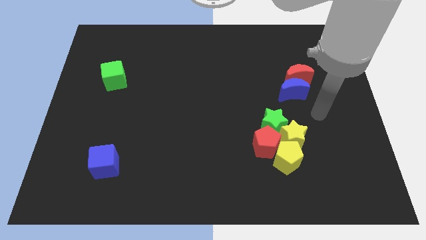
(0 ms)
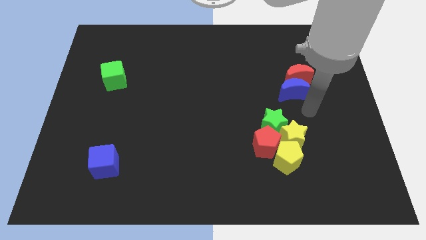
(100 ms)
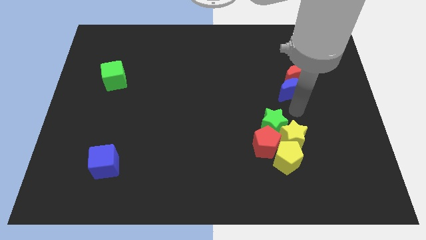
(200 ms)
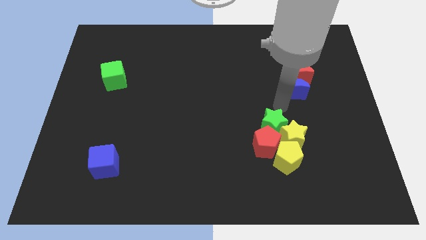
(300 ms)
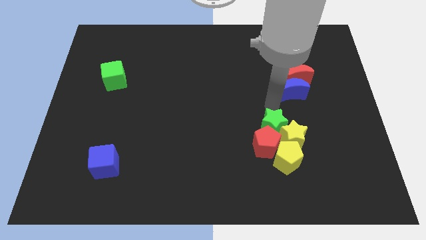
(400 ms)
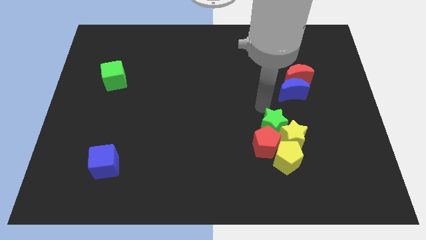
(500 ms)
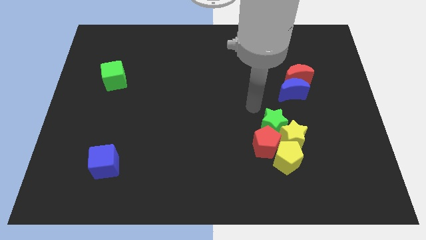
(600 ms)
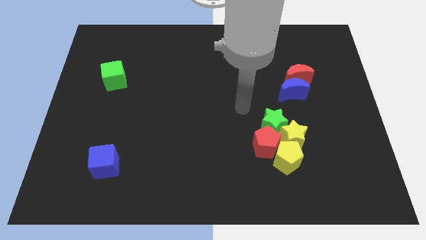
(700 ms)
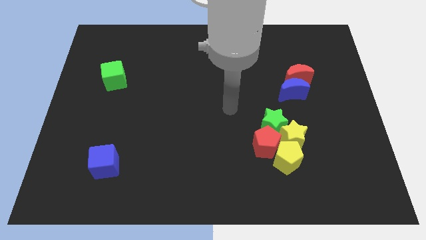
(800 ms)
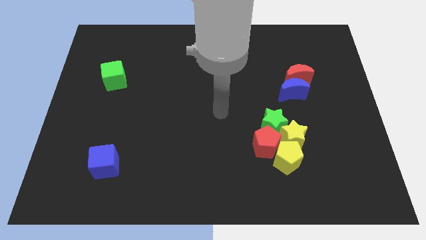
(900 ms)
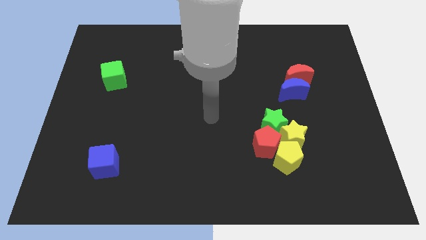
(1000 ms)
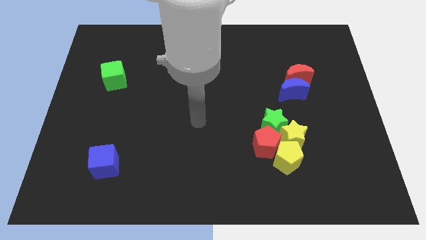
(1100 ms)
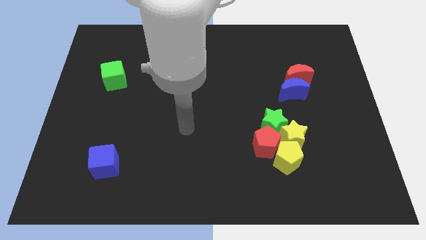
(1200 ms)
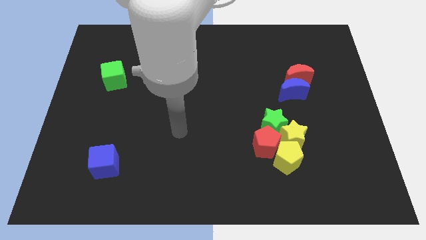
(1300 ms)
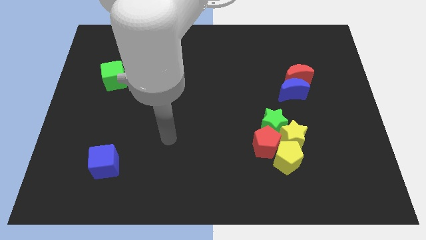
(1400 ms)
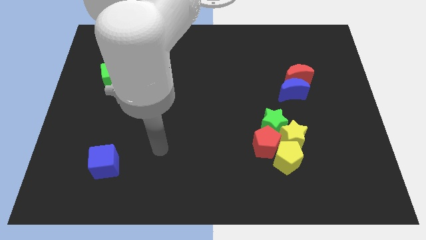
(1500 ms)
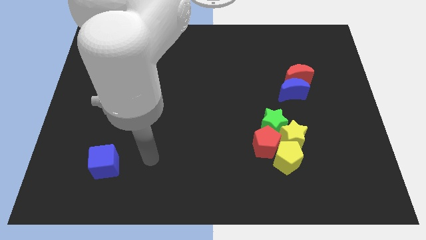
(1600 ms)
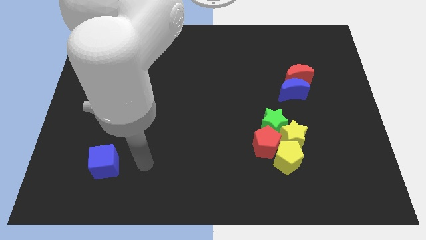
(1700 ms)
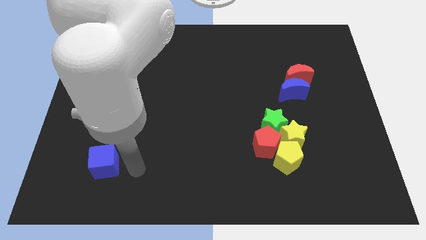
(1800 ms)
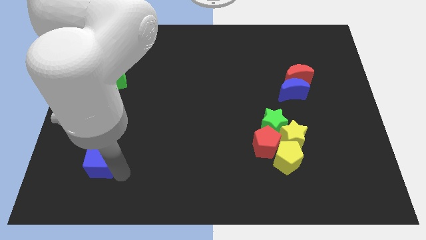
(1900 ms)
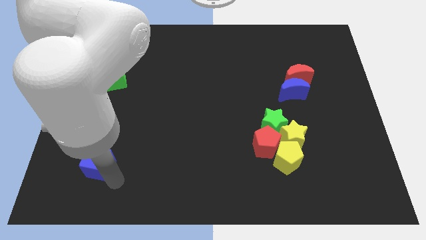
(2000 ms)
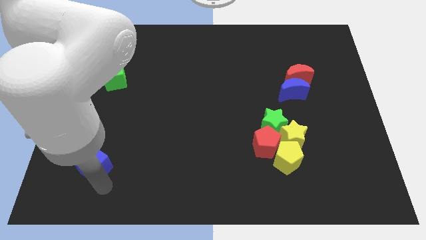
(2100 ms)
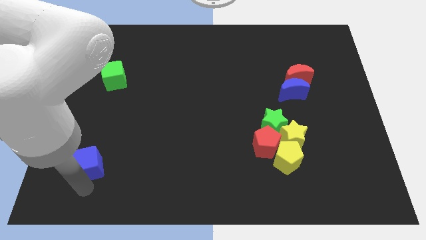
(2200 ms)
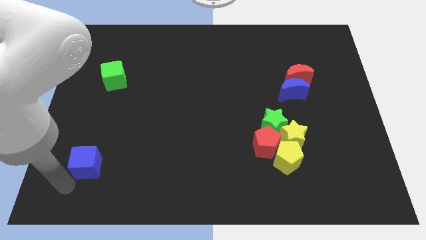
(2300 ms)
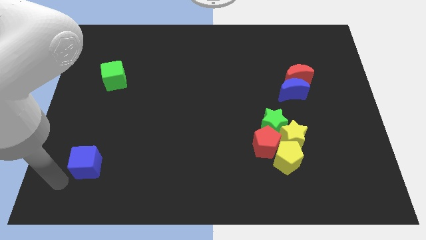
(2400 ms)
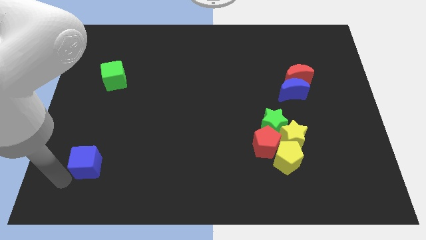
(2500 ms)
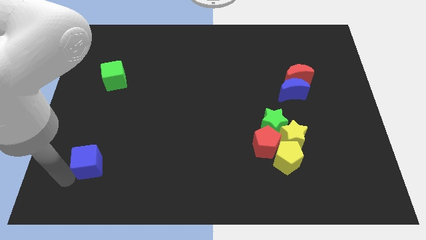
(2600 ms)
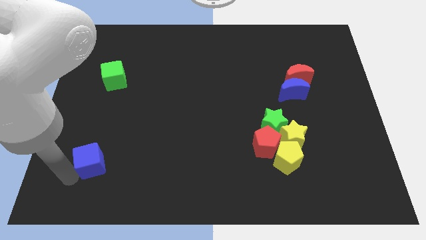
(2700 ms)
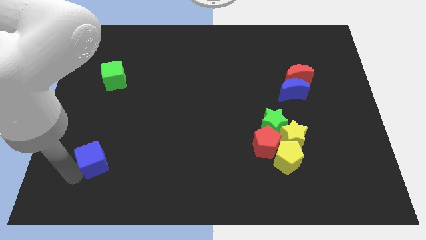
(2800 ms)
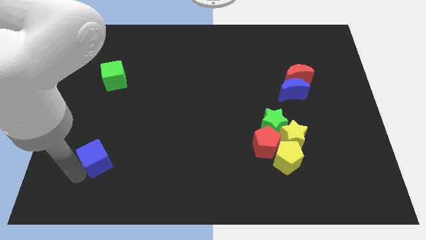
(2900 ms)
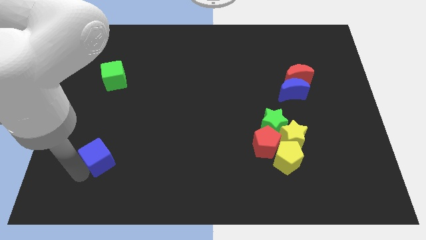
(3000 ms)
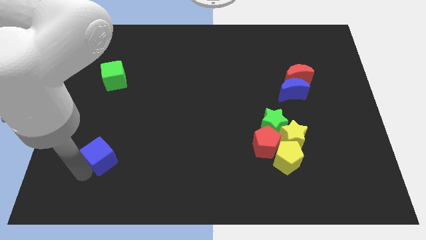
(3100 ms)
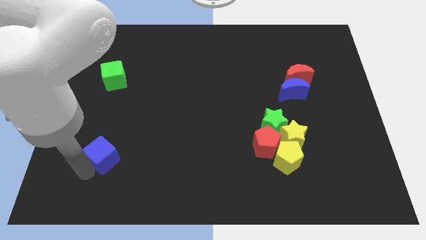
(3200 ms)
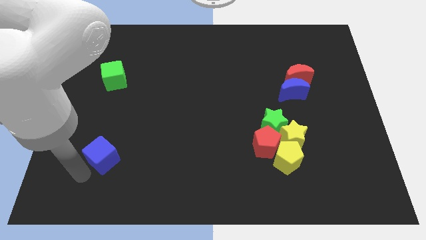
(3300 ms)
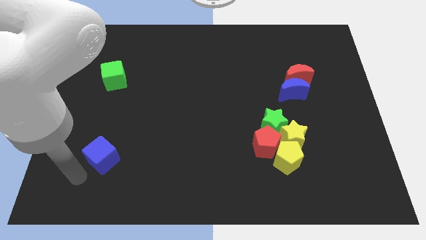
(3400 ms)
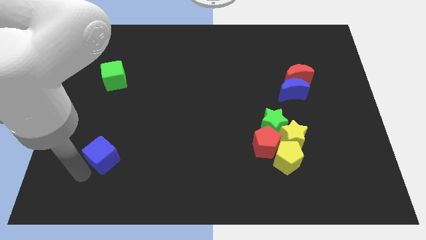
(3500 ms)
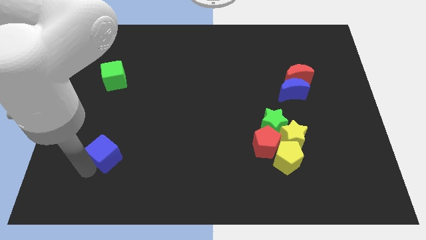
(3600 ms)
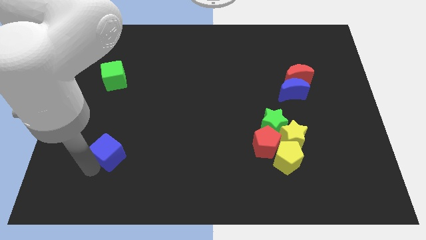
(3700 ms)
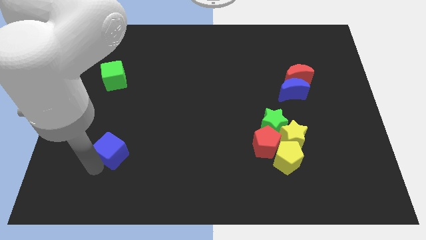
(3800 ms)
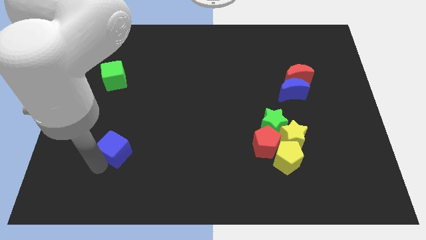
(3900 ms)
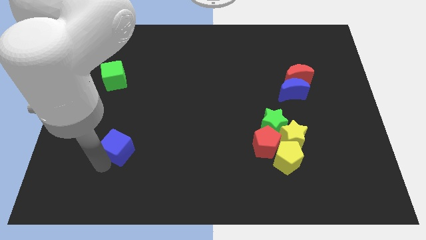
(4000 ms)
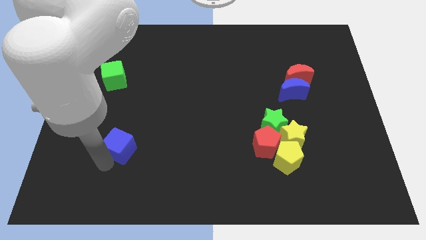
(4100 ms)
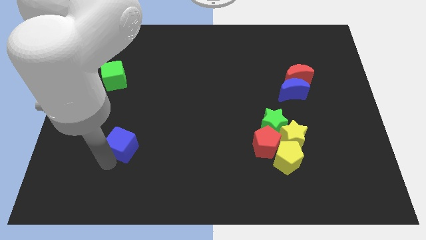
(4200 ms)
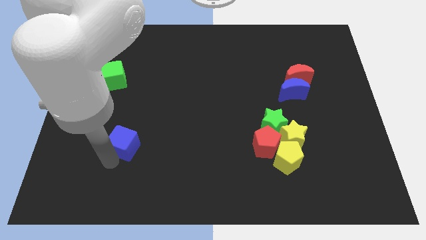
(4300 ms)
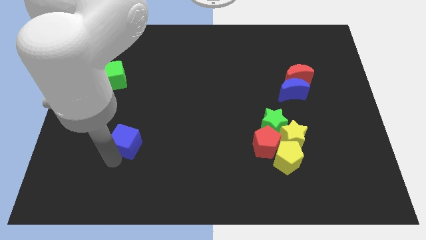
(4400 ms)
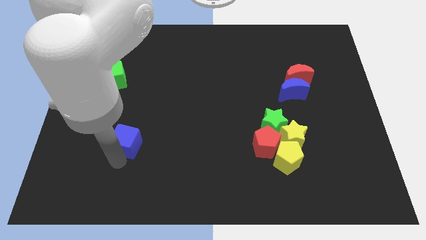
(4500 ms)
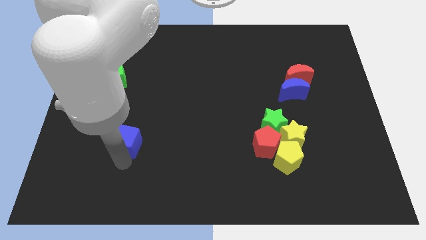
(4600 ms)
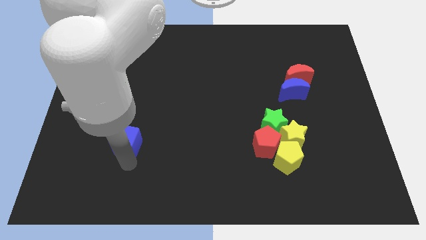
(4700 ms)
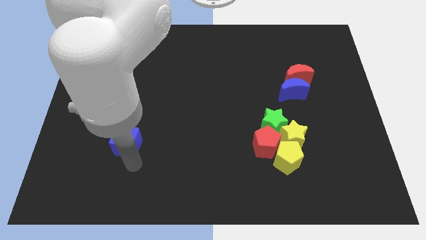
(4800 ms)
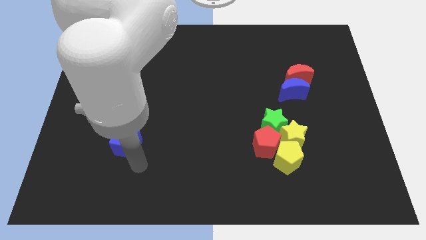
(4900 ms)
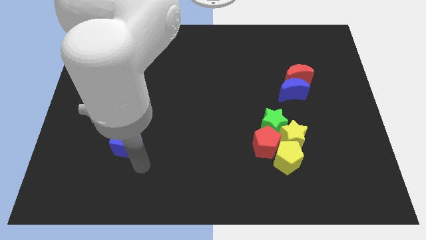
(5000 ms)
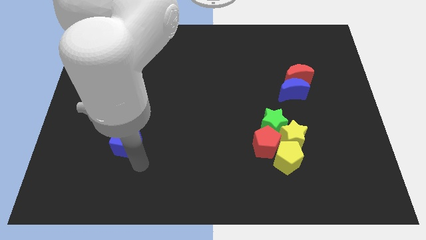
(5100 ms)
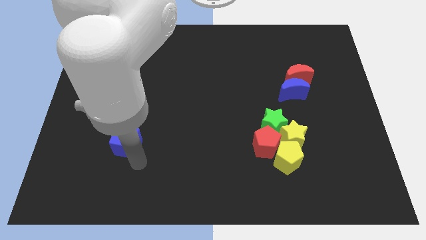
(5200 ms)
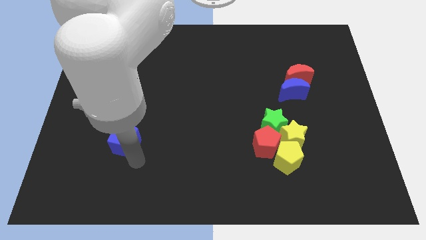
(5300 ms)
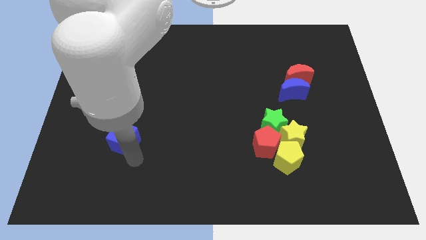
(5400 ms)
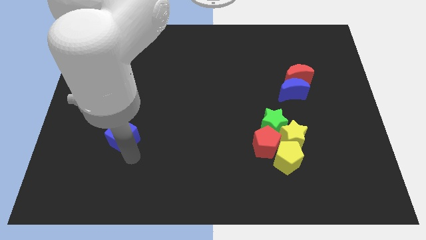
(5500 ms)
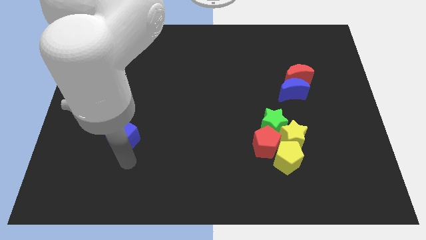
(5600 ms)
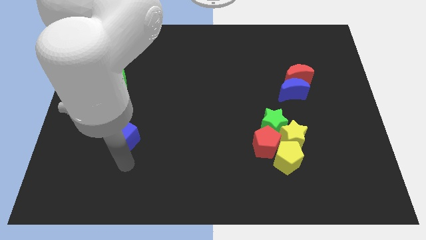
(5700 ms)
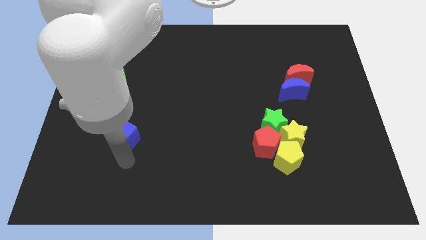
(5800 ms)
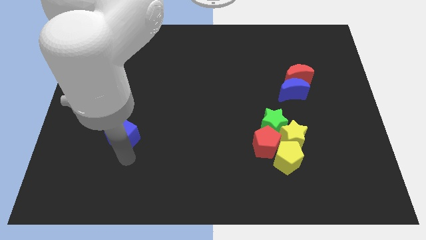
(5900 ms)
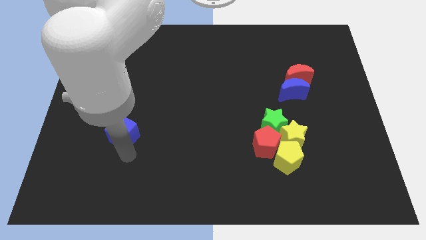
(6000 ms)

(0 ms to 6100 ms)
move the blue cube up a little bit

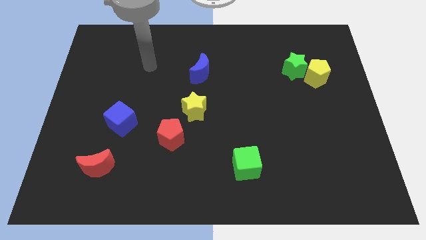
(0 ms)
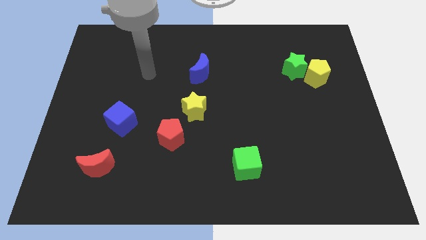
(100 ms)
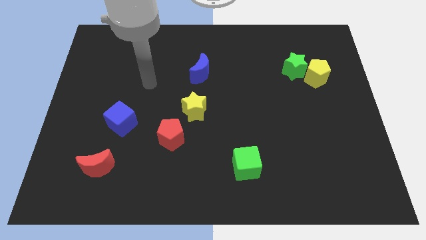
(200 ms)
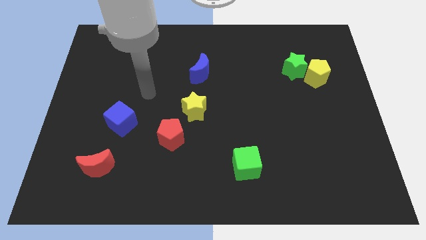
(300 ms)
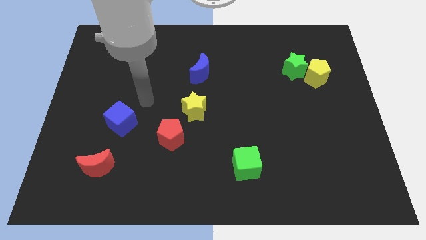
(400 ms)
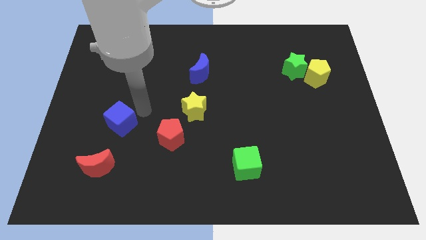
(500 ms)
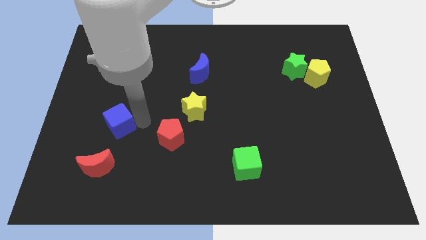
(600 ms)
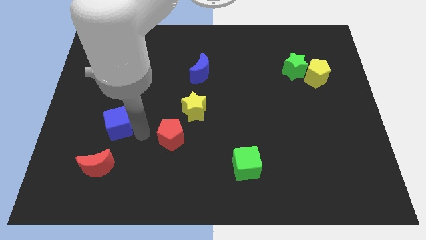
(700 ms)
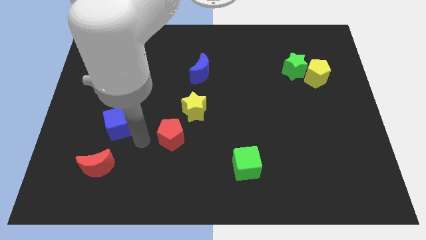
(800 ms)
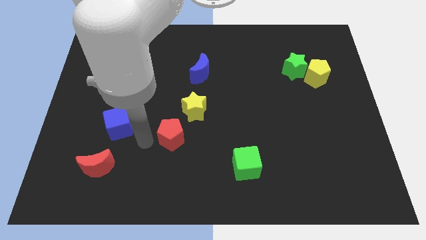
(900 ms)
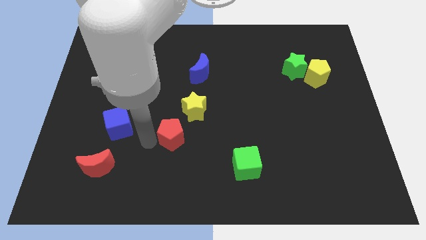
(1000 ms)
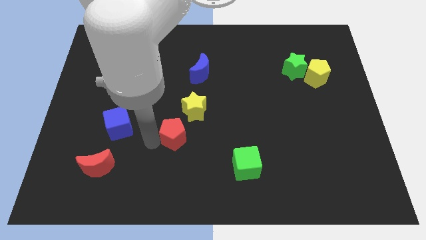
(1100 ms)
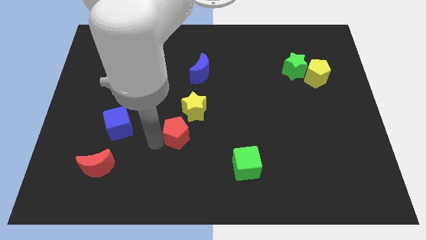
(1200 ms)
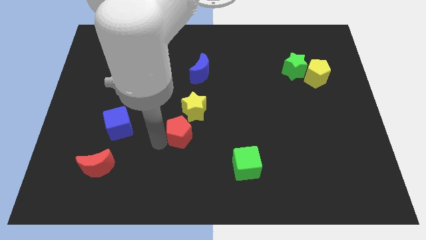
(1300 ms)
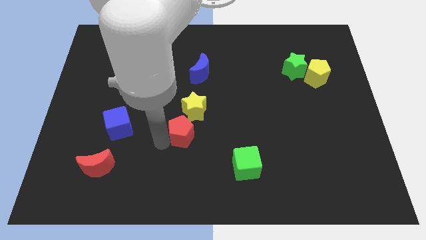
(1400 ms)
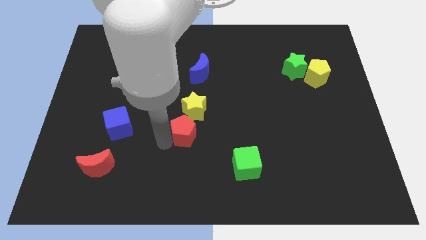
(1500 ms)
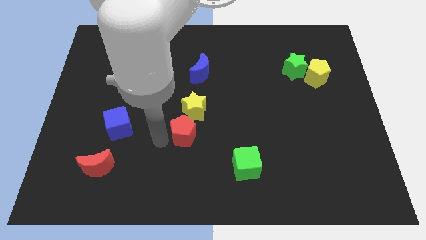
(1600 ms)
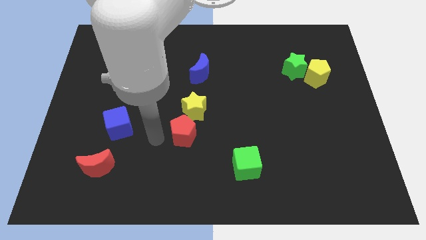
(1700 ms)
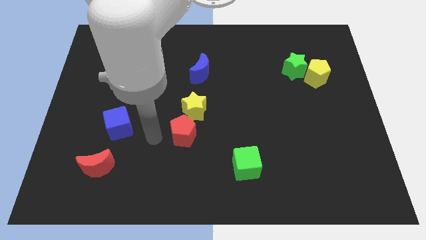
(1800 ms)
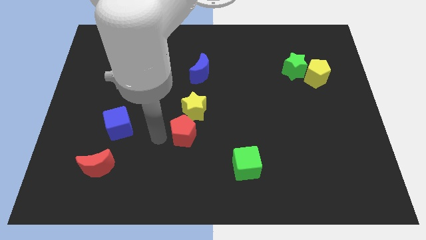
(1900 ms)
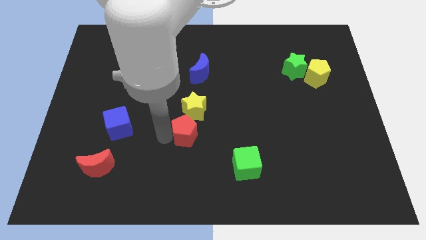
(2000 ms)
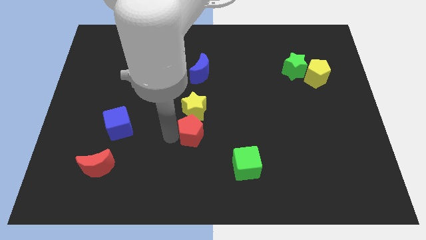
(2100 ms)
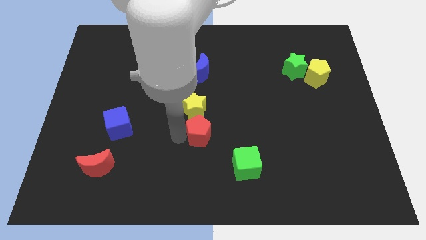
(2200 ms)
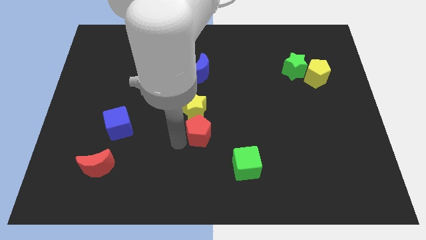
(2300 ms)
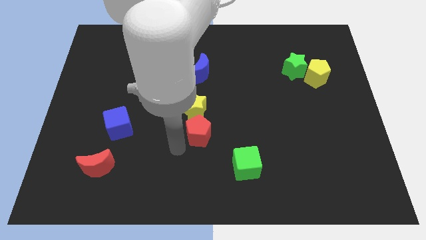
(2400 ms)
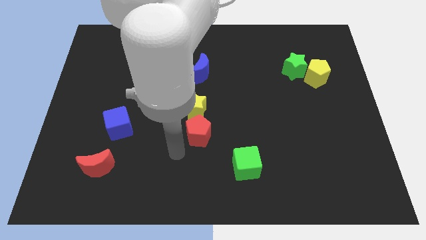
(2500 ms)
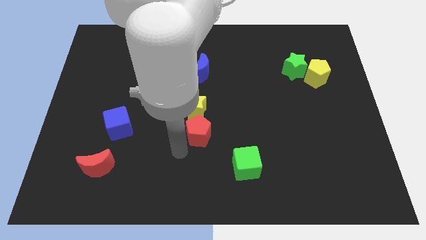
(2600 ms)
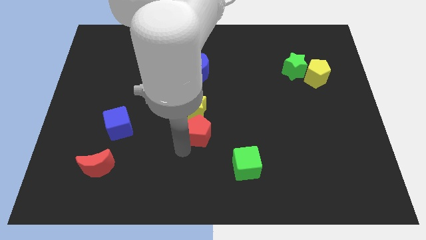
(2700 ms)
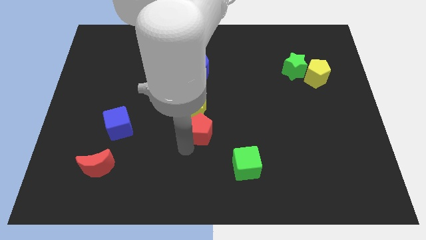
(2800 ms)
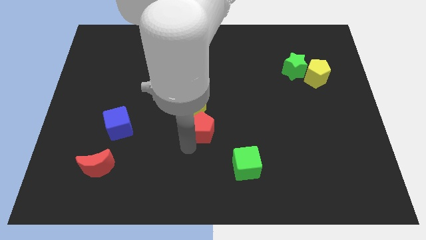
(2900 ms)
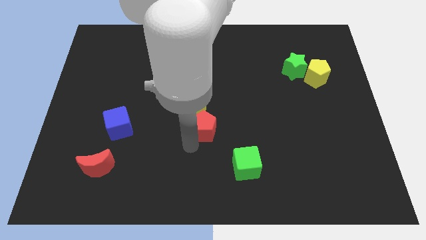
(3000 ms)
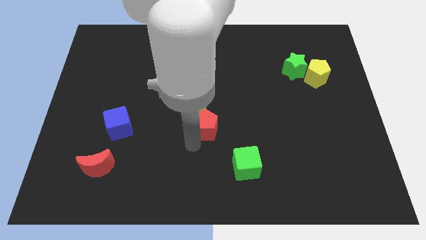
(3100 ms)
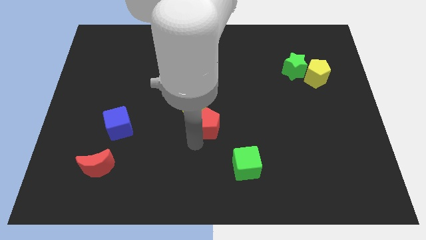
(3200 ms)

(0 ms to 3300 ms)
slide the red pentagon upwards and right a little
